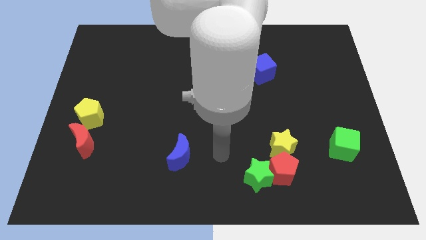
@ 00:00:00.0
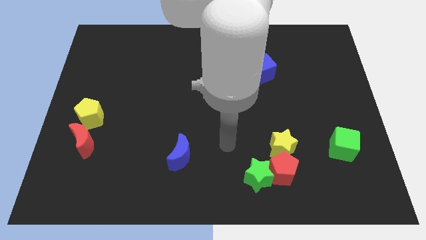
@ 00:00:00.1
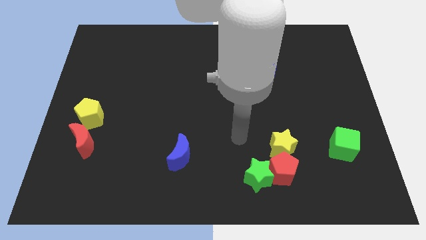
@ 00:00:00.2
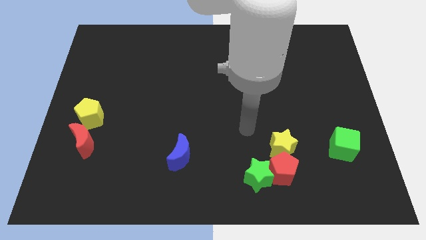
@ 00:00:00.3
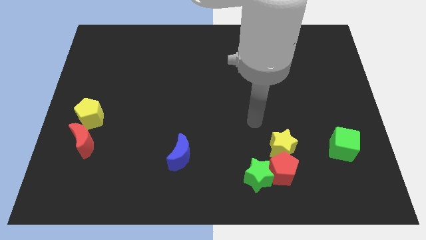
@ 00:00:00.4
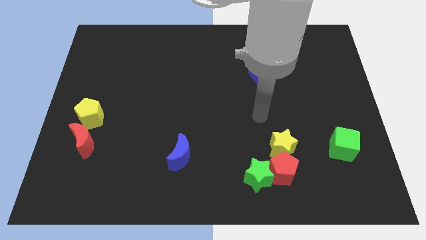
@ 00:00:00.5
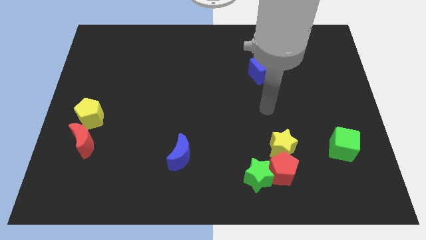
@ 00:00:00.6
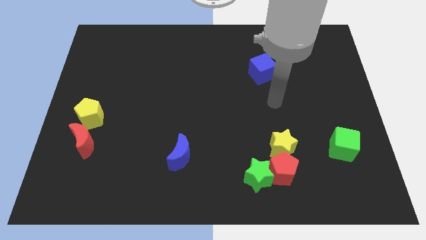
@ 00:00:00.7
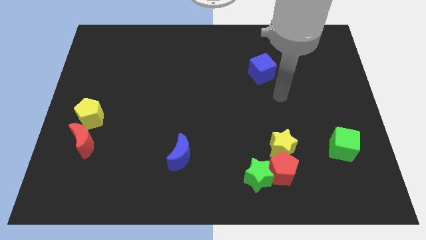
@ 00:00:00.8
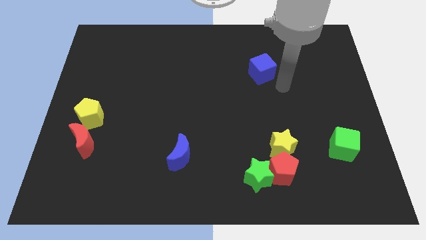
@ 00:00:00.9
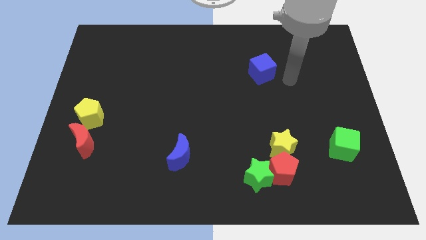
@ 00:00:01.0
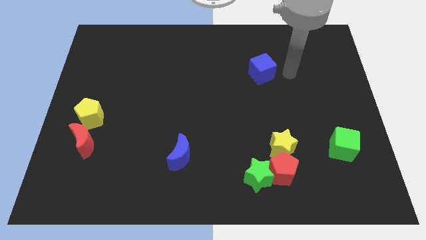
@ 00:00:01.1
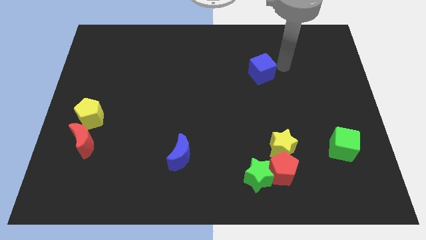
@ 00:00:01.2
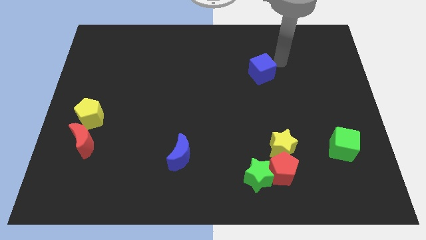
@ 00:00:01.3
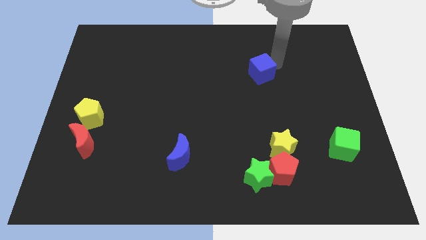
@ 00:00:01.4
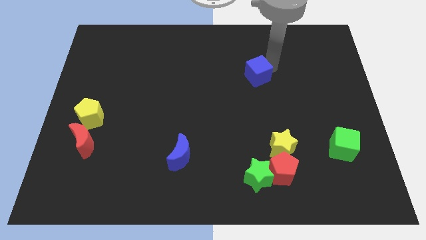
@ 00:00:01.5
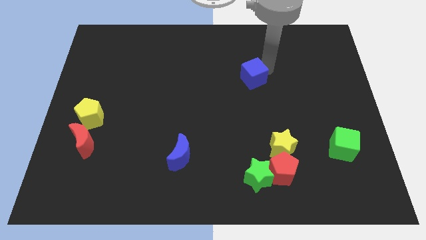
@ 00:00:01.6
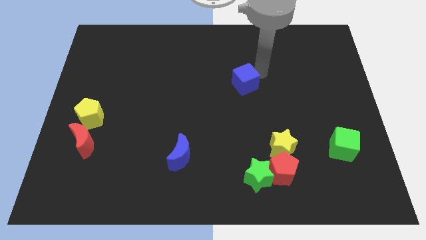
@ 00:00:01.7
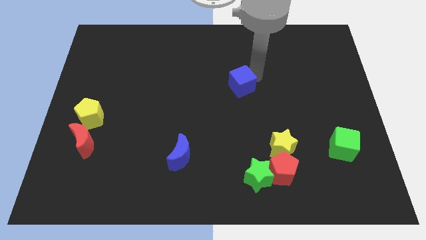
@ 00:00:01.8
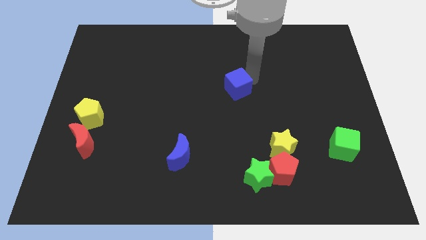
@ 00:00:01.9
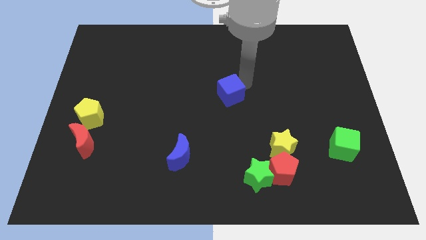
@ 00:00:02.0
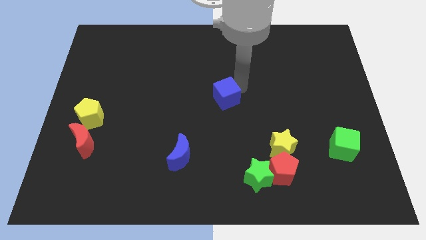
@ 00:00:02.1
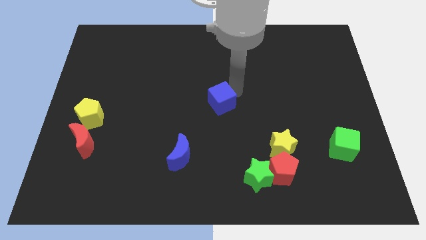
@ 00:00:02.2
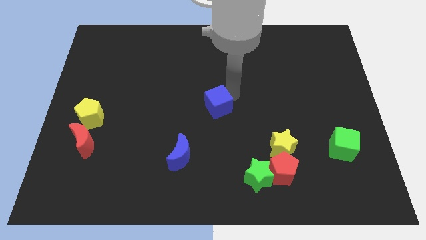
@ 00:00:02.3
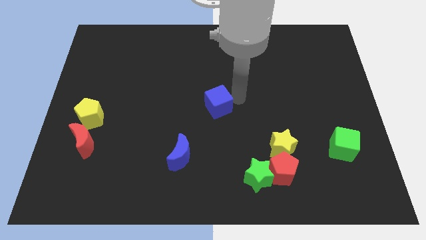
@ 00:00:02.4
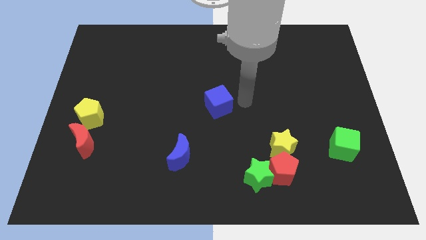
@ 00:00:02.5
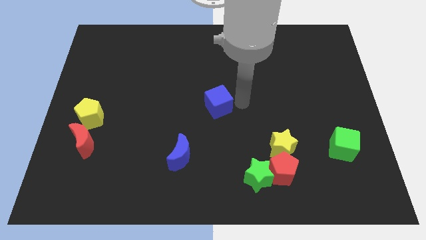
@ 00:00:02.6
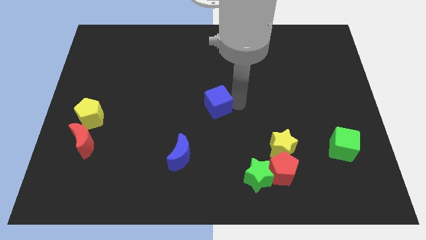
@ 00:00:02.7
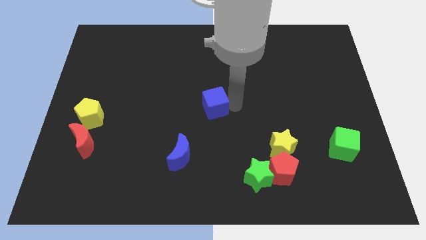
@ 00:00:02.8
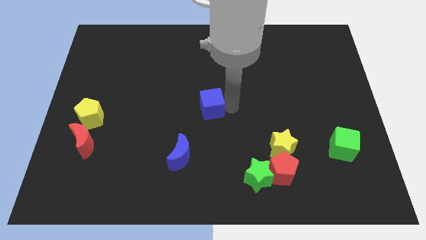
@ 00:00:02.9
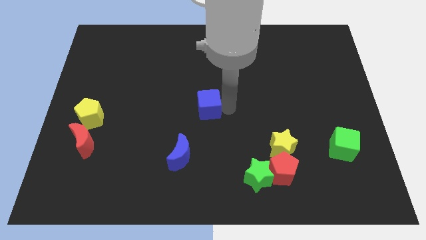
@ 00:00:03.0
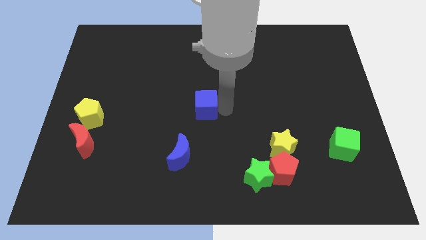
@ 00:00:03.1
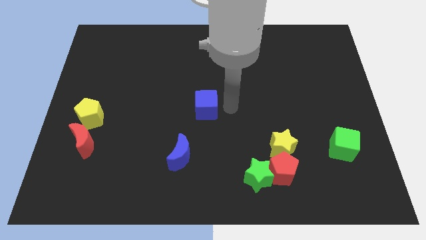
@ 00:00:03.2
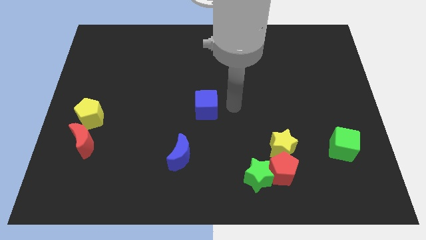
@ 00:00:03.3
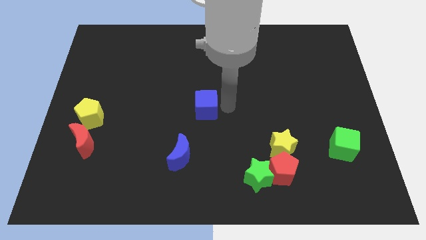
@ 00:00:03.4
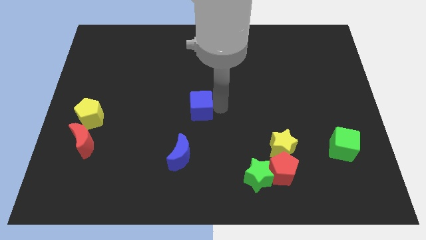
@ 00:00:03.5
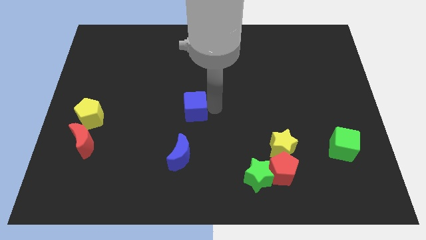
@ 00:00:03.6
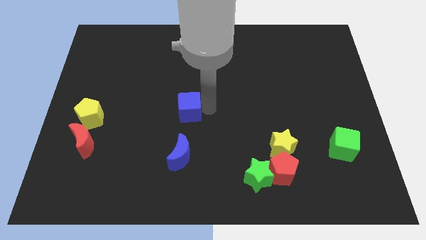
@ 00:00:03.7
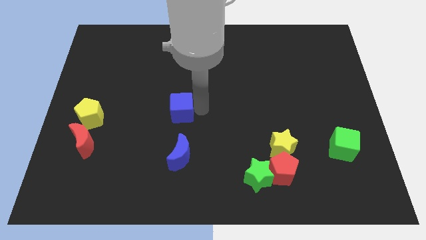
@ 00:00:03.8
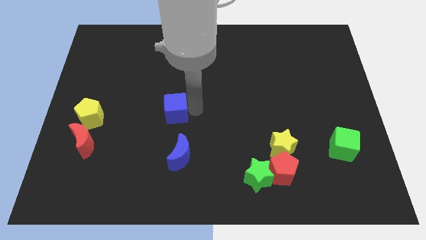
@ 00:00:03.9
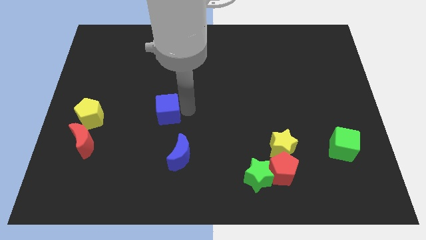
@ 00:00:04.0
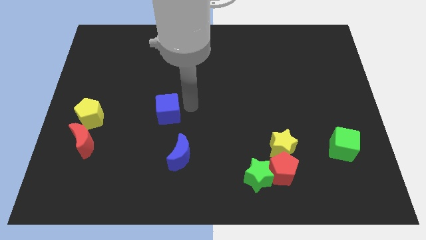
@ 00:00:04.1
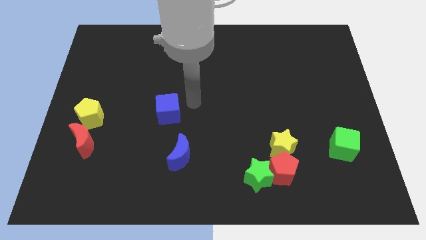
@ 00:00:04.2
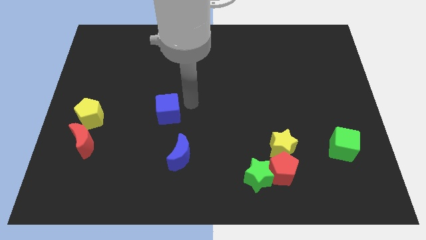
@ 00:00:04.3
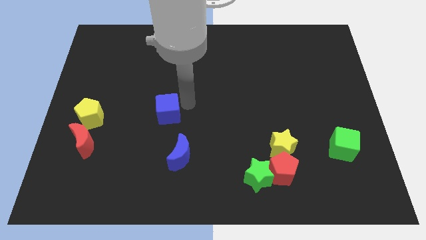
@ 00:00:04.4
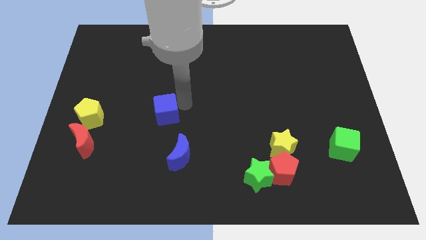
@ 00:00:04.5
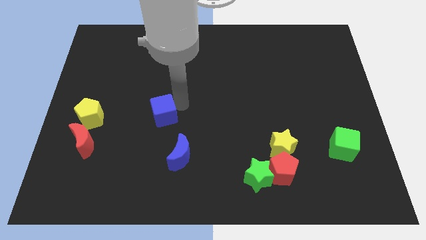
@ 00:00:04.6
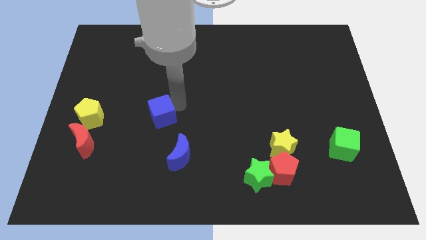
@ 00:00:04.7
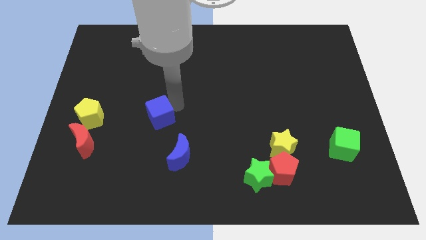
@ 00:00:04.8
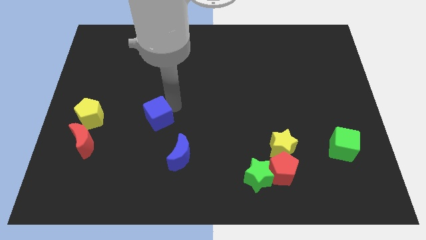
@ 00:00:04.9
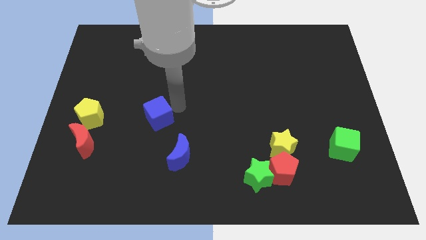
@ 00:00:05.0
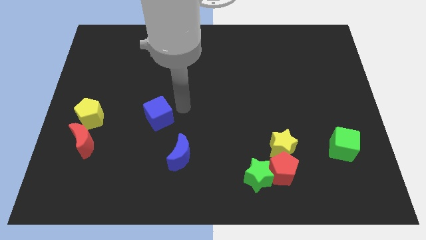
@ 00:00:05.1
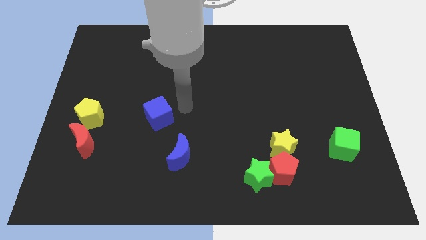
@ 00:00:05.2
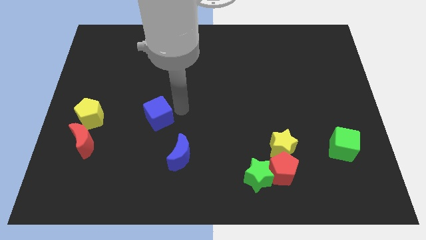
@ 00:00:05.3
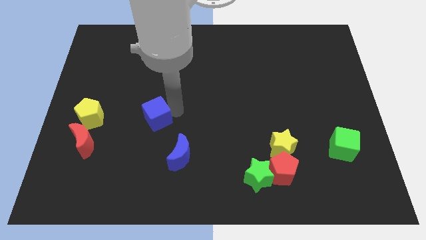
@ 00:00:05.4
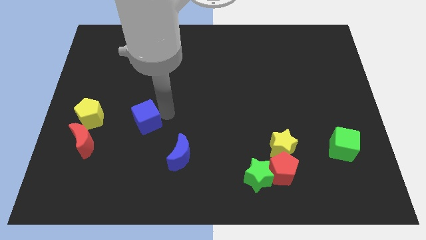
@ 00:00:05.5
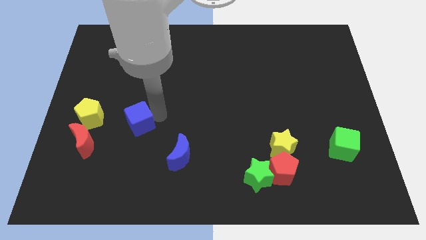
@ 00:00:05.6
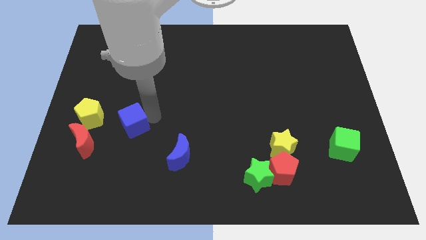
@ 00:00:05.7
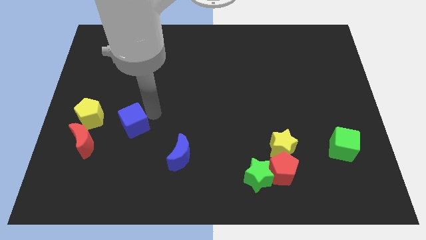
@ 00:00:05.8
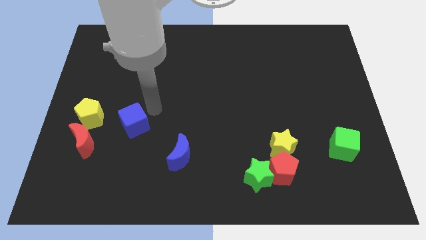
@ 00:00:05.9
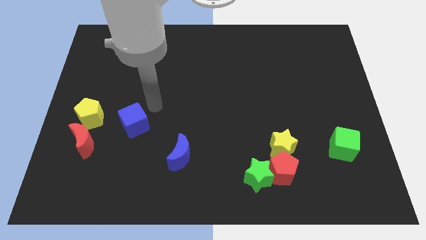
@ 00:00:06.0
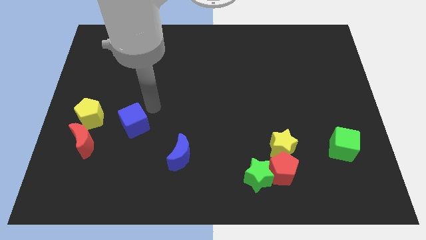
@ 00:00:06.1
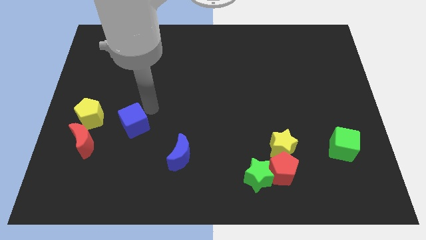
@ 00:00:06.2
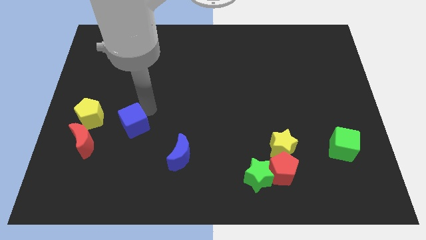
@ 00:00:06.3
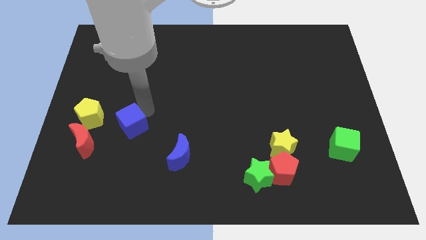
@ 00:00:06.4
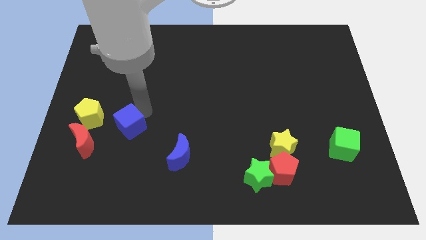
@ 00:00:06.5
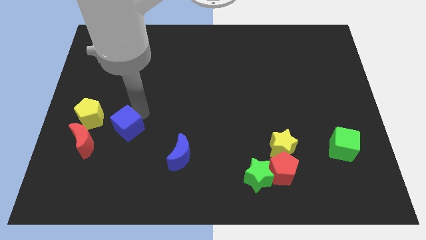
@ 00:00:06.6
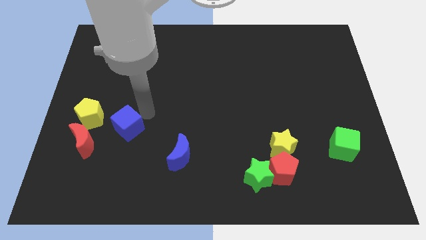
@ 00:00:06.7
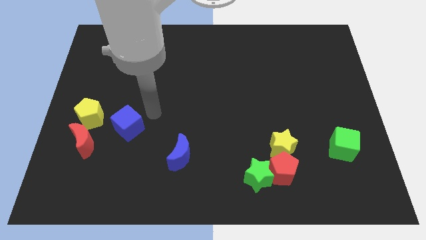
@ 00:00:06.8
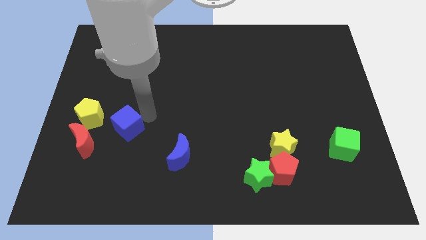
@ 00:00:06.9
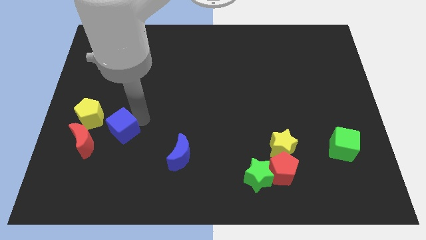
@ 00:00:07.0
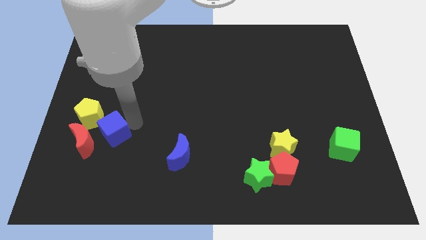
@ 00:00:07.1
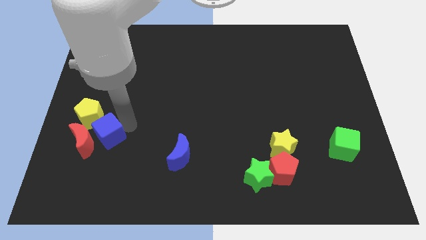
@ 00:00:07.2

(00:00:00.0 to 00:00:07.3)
move the blue cube close to the red moon
